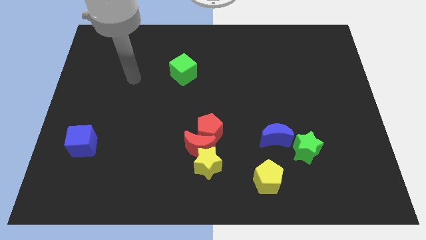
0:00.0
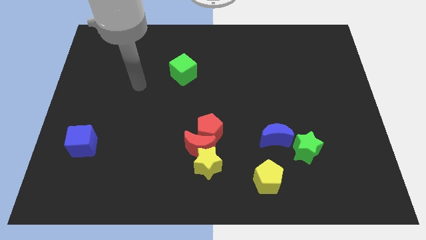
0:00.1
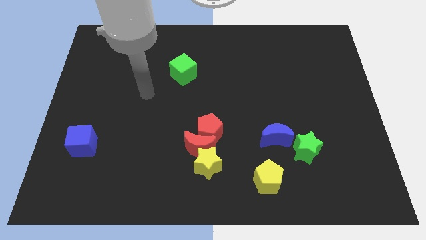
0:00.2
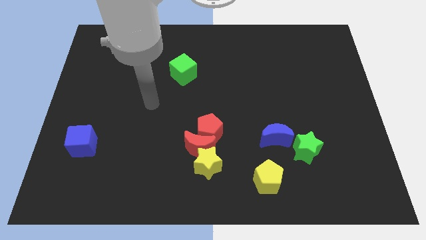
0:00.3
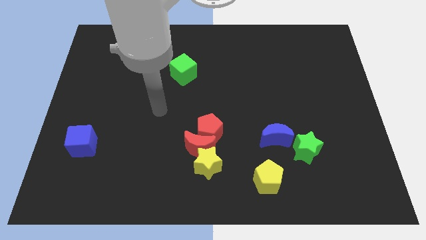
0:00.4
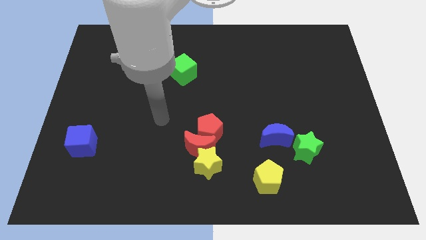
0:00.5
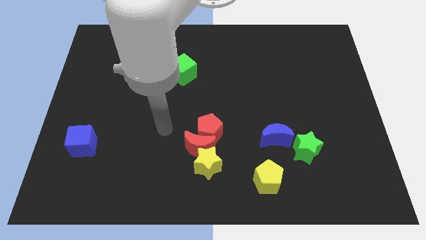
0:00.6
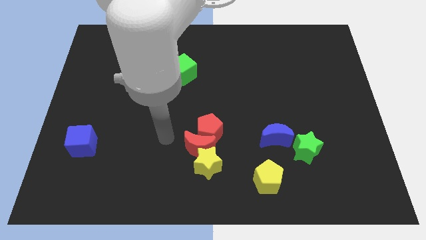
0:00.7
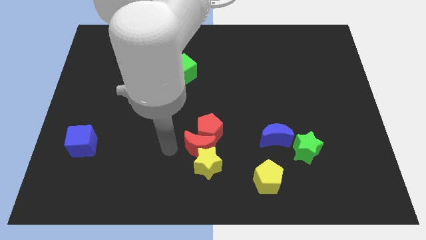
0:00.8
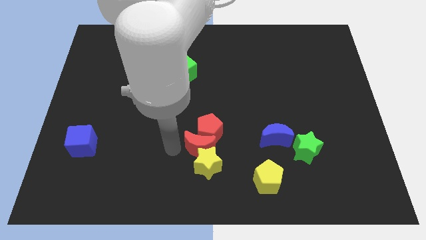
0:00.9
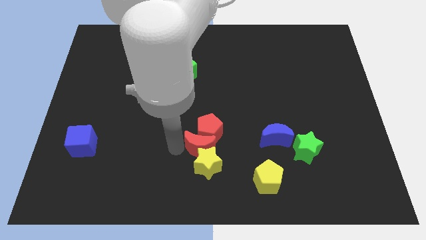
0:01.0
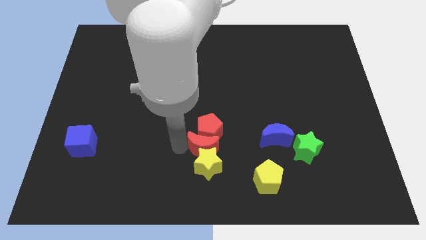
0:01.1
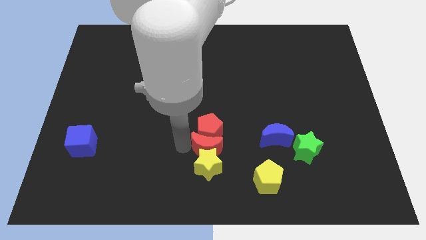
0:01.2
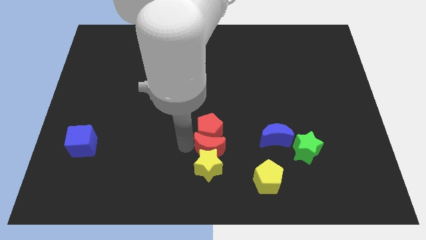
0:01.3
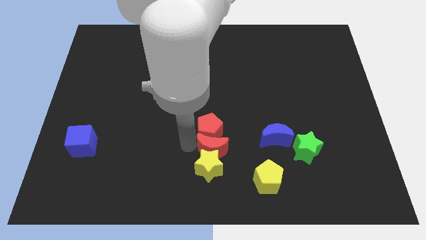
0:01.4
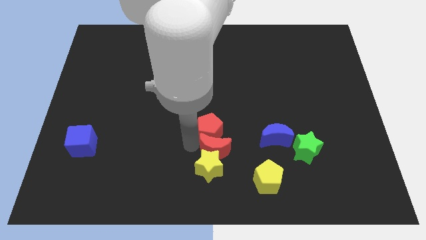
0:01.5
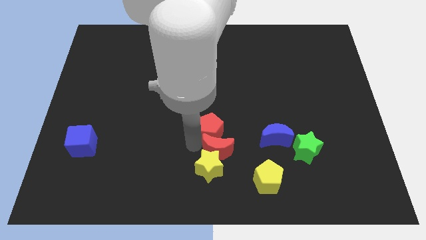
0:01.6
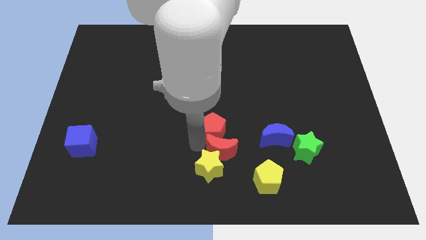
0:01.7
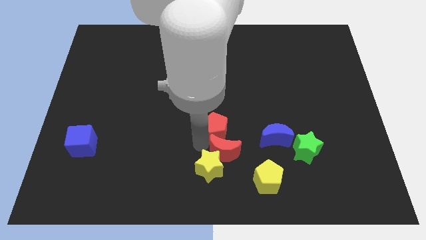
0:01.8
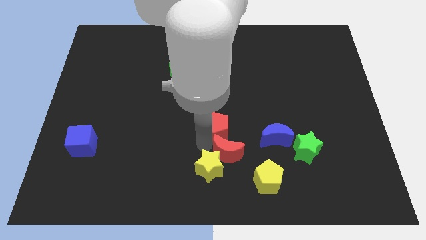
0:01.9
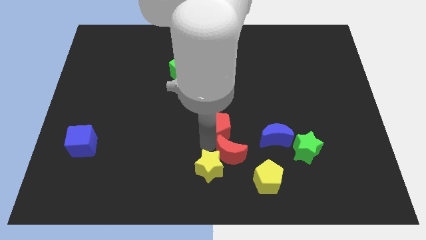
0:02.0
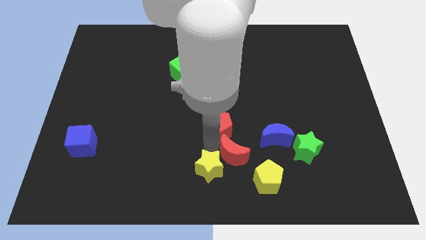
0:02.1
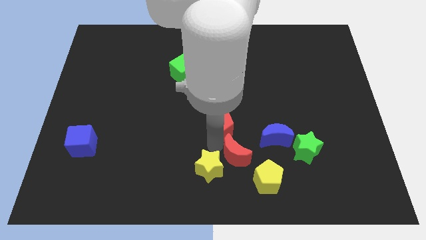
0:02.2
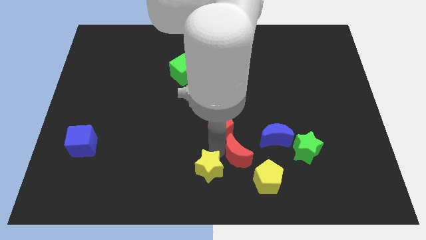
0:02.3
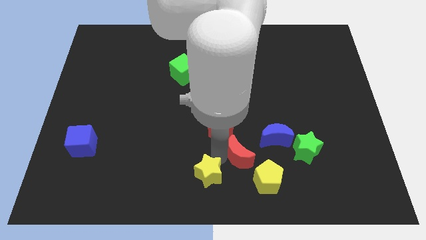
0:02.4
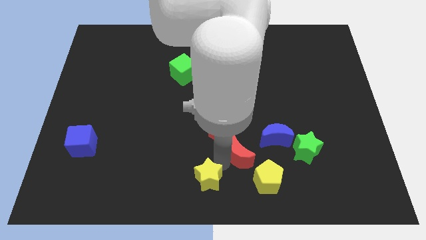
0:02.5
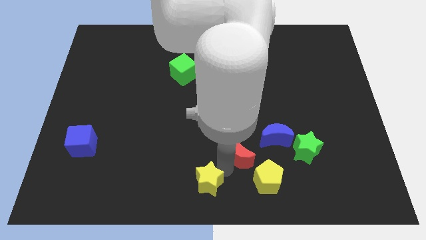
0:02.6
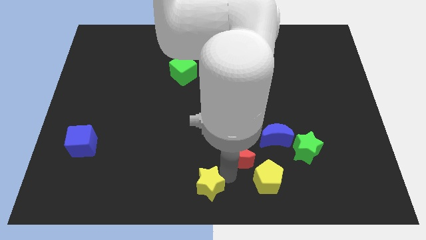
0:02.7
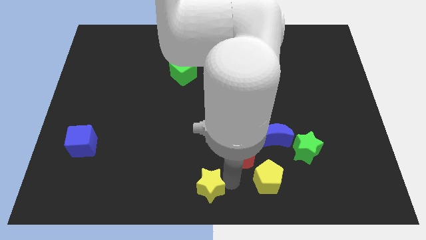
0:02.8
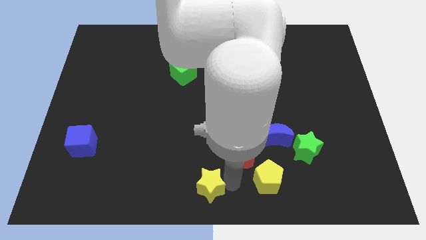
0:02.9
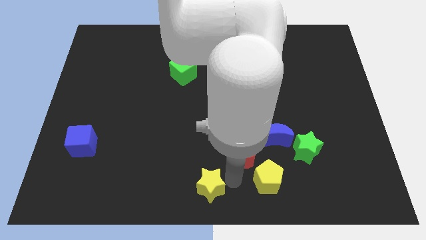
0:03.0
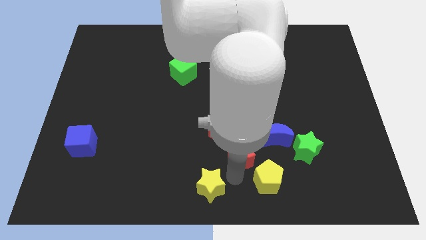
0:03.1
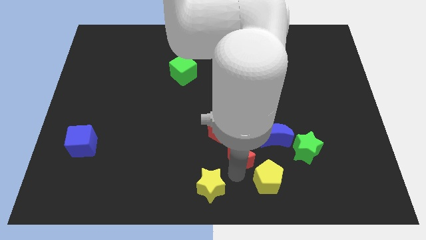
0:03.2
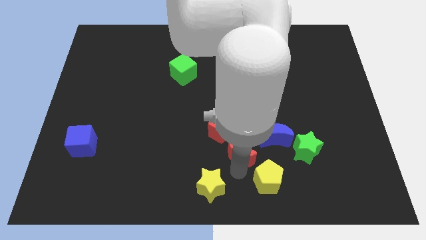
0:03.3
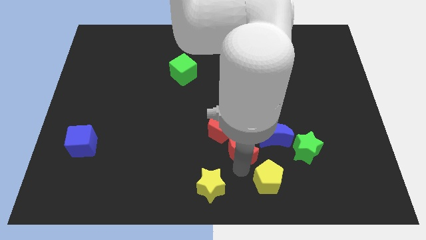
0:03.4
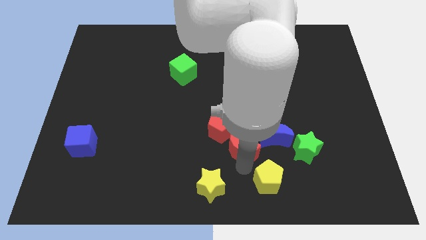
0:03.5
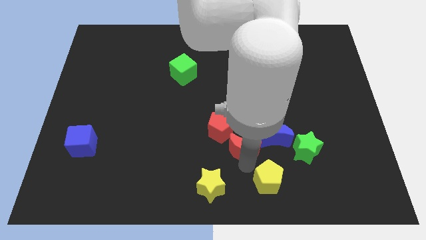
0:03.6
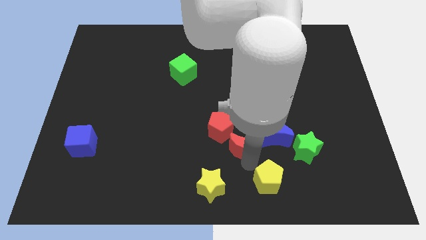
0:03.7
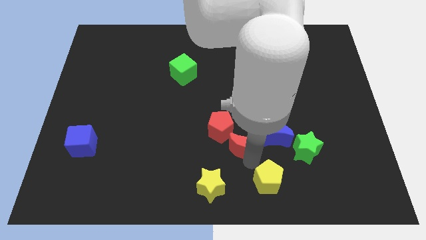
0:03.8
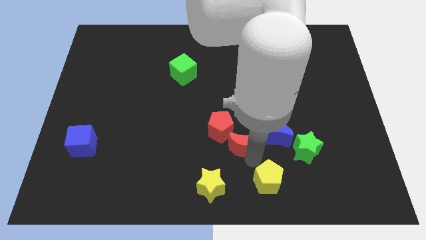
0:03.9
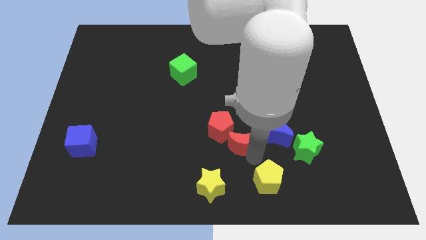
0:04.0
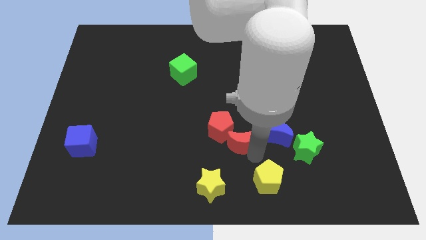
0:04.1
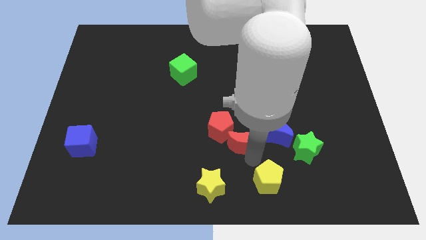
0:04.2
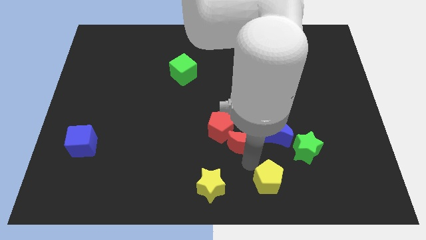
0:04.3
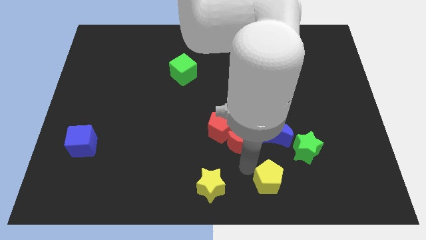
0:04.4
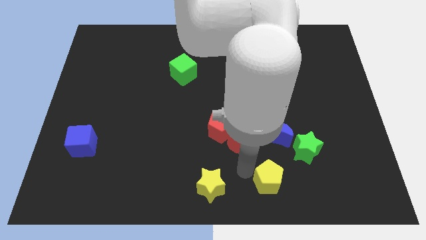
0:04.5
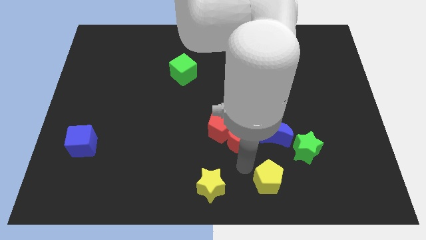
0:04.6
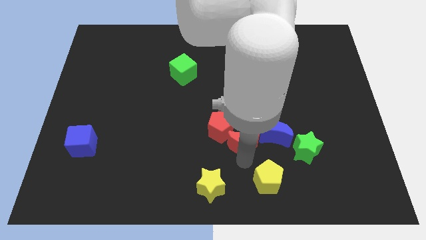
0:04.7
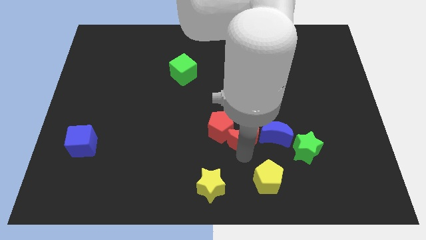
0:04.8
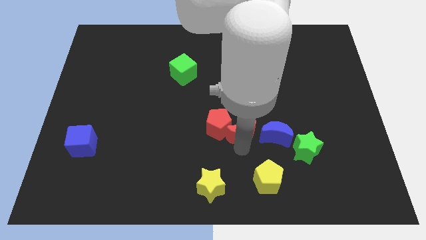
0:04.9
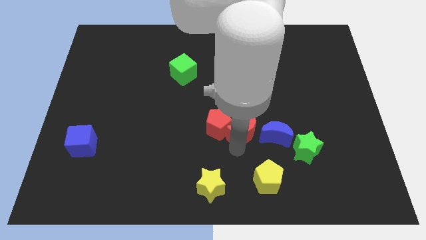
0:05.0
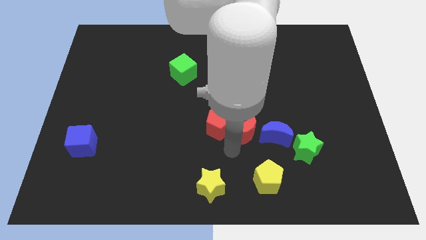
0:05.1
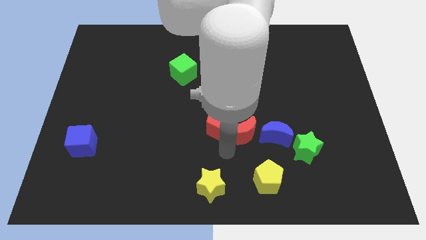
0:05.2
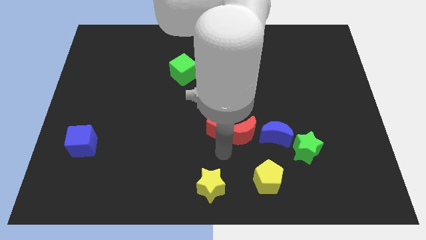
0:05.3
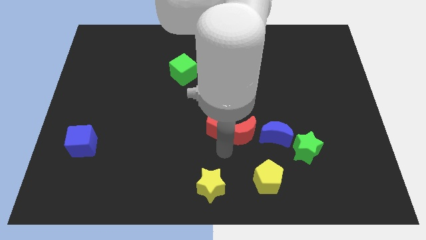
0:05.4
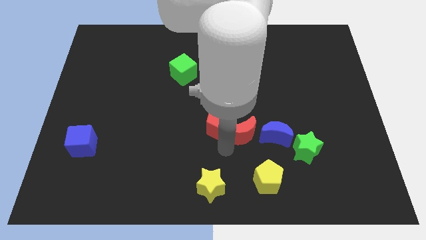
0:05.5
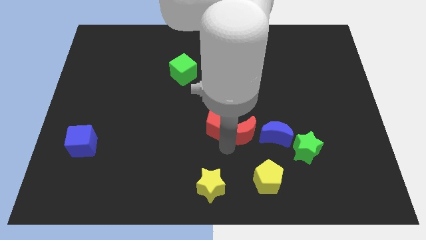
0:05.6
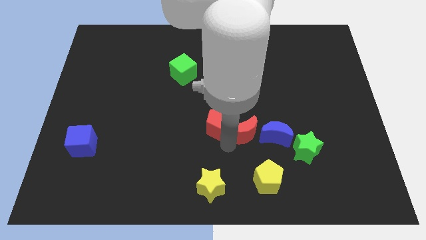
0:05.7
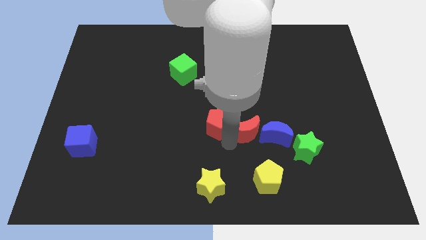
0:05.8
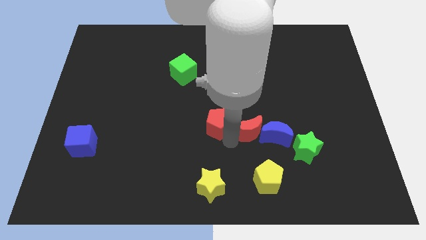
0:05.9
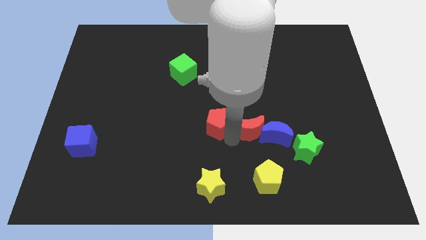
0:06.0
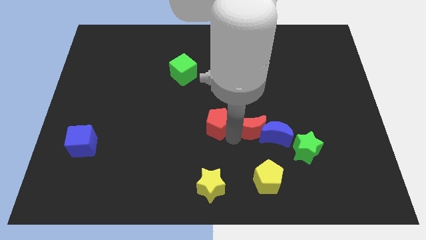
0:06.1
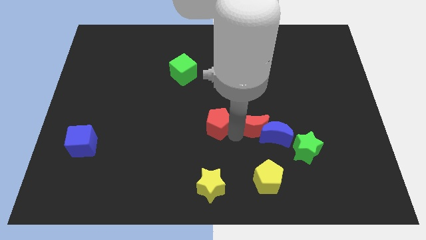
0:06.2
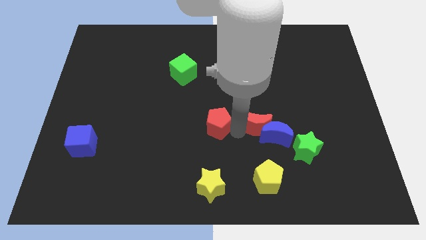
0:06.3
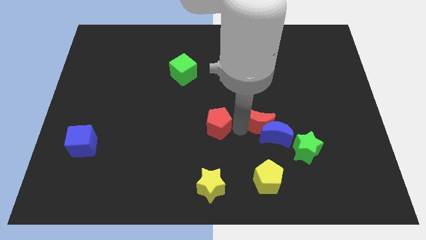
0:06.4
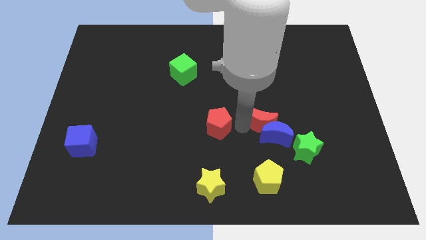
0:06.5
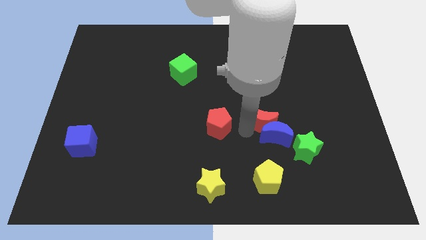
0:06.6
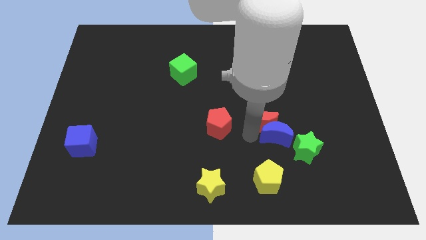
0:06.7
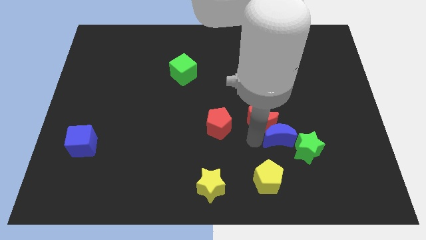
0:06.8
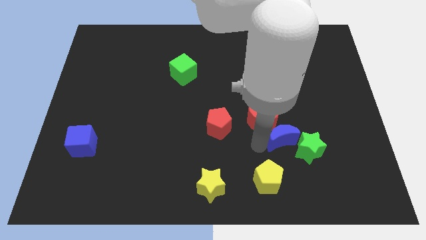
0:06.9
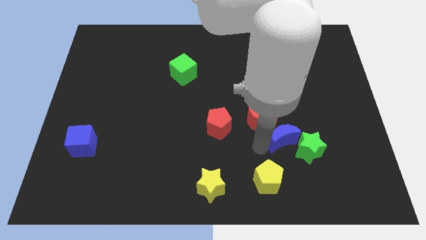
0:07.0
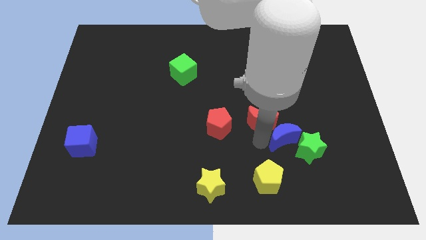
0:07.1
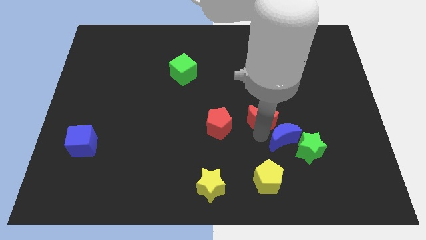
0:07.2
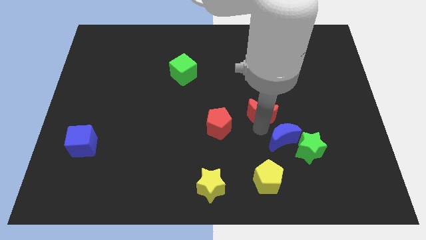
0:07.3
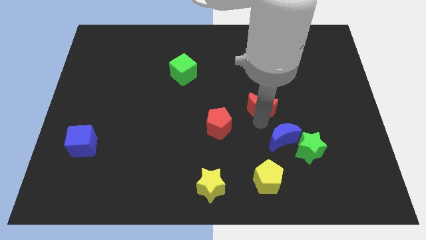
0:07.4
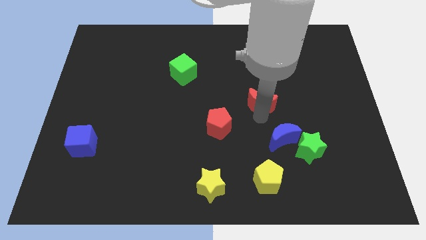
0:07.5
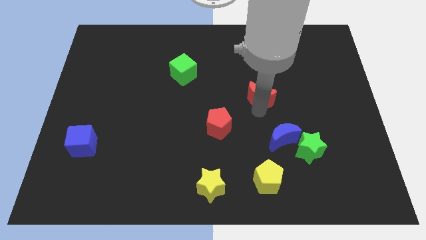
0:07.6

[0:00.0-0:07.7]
move the red moon diagonally up and right

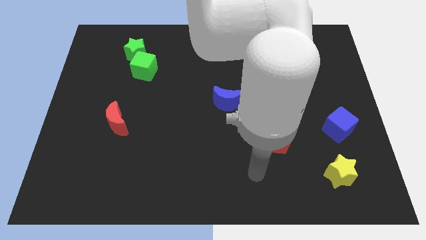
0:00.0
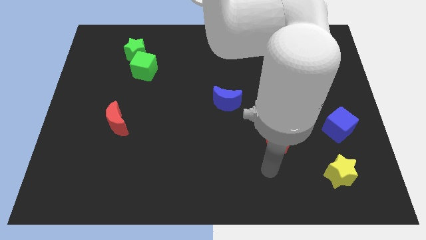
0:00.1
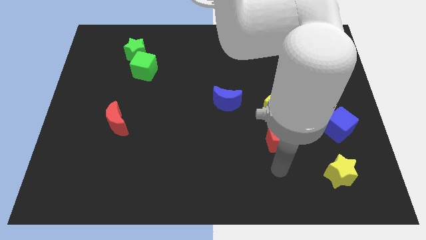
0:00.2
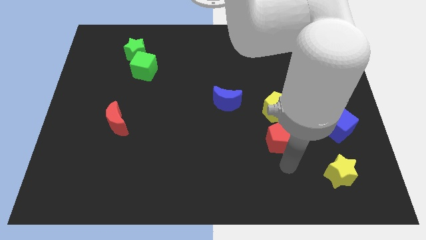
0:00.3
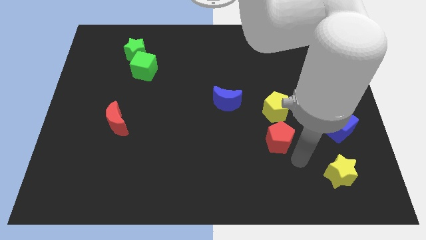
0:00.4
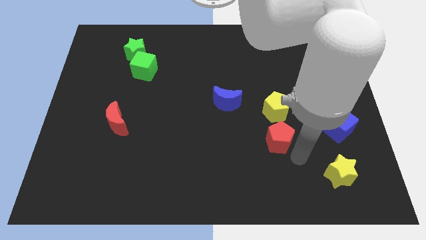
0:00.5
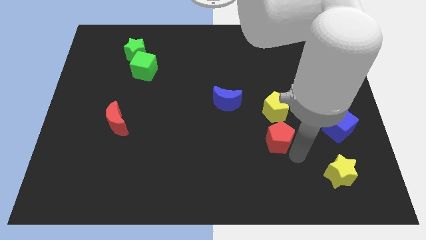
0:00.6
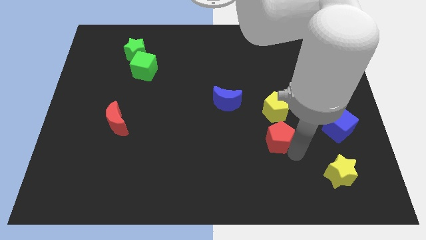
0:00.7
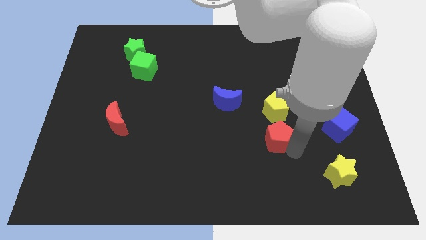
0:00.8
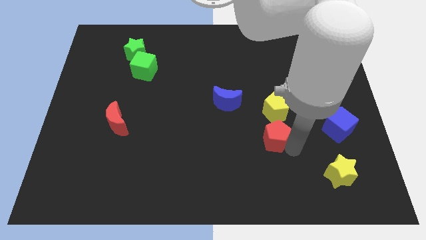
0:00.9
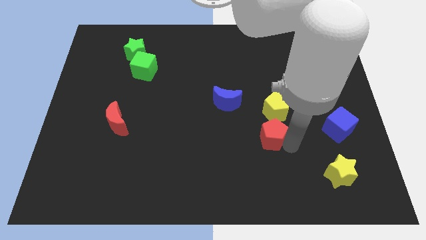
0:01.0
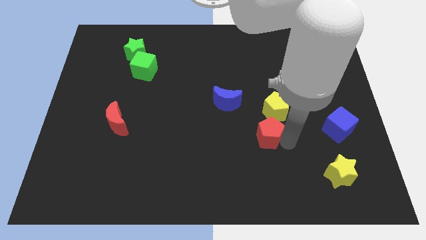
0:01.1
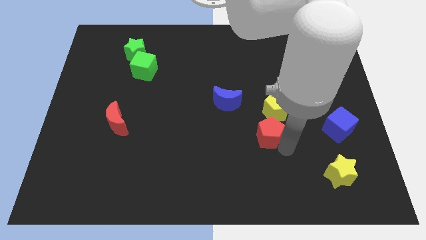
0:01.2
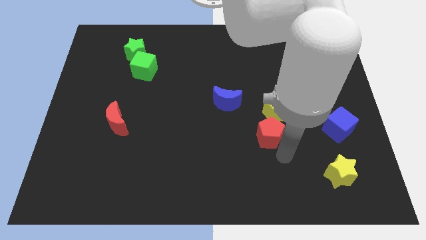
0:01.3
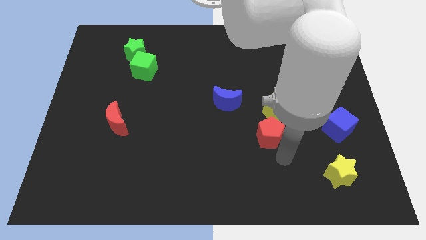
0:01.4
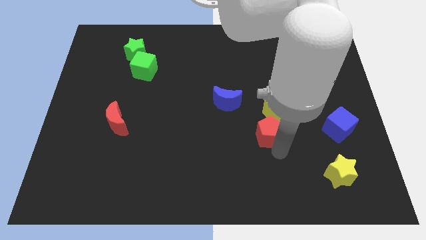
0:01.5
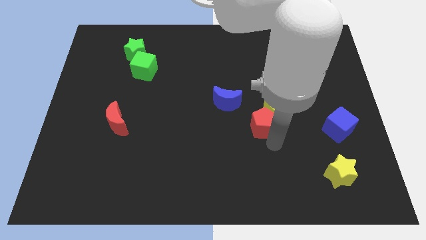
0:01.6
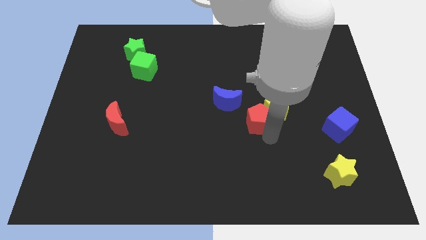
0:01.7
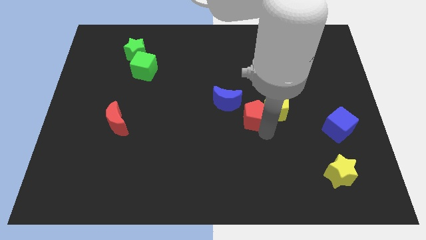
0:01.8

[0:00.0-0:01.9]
slightly move the red pentagon upwards and to the left diagonally
